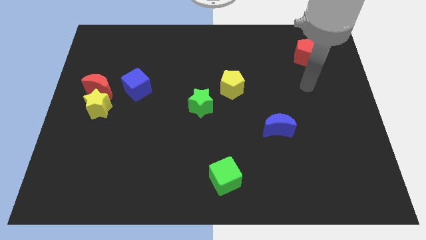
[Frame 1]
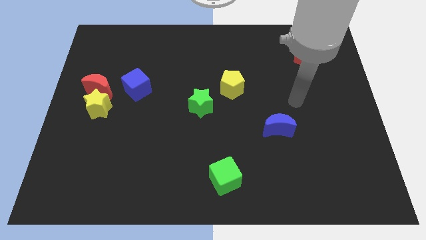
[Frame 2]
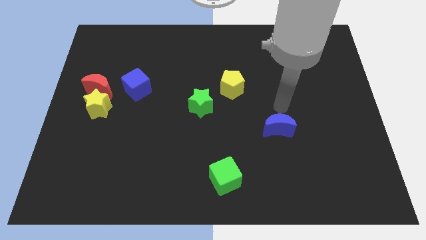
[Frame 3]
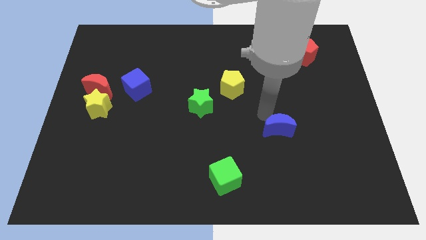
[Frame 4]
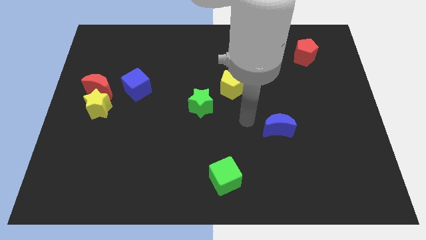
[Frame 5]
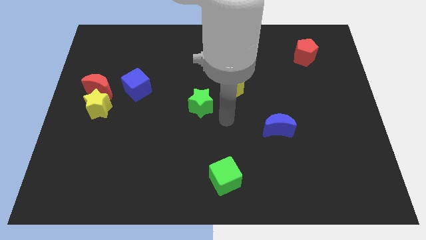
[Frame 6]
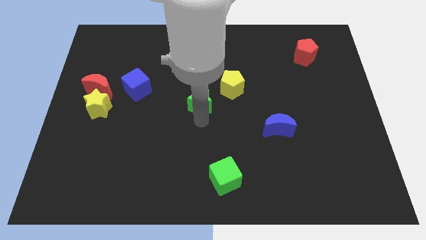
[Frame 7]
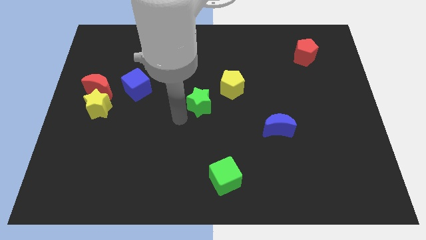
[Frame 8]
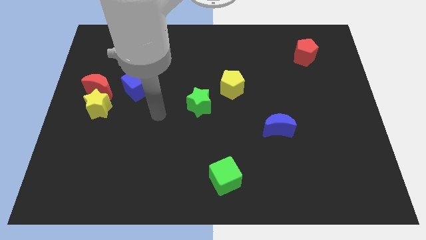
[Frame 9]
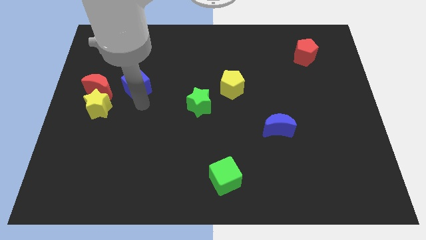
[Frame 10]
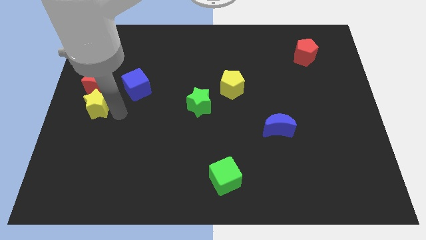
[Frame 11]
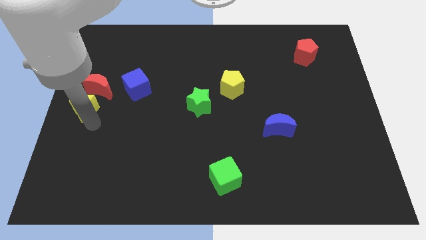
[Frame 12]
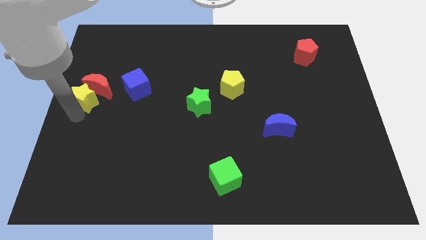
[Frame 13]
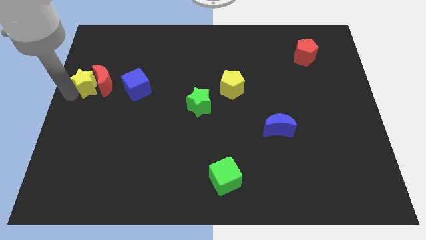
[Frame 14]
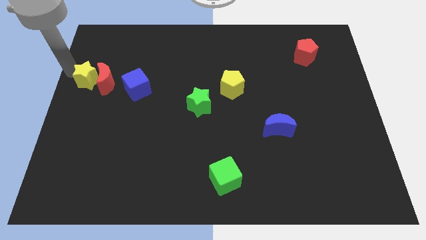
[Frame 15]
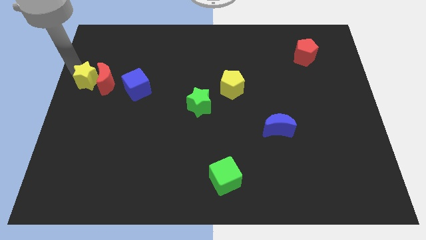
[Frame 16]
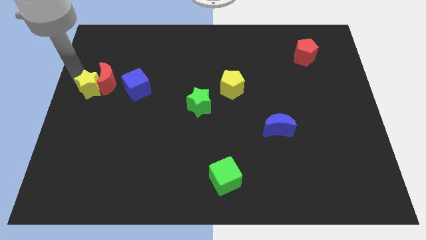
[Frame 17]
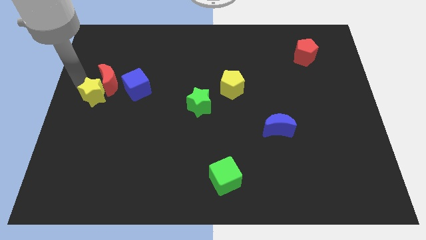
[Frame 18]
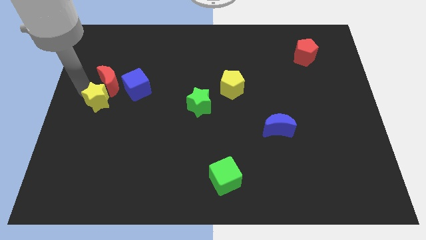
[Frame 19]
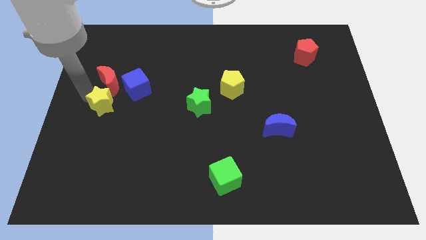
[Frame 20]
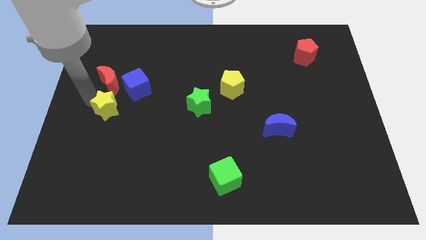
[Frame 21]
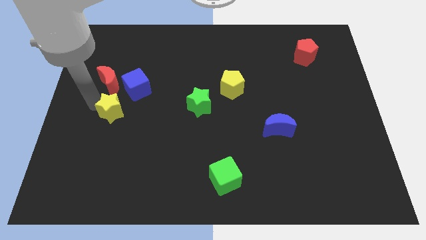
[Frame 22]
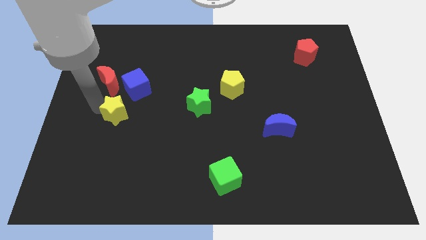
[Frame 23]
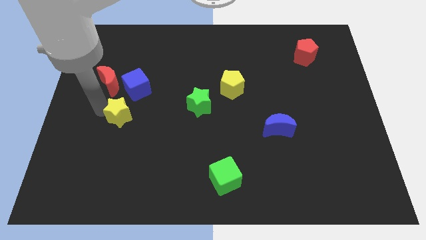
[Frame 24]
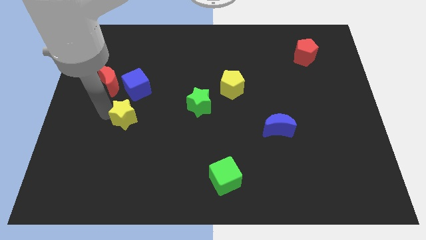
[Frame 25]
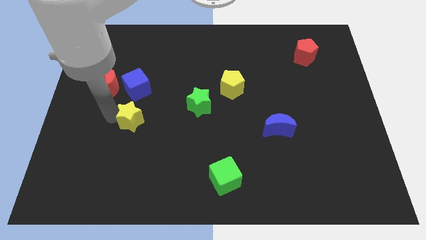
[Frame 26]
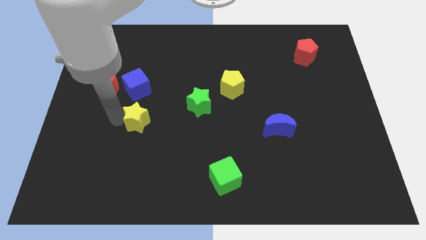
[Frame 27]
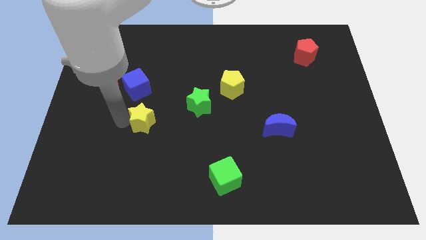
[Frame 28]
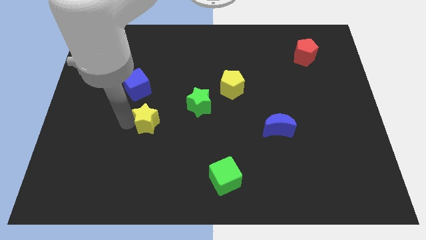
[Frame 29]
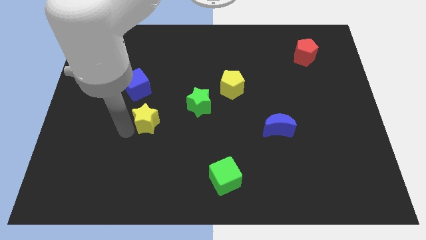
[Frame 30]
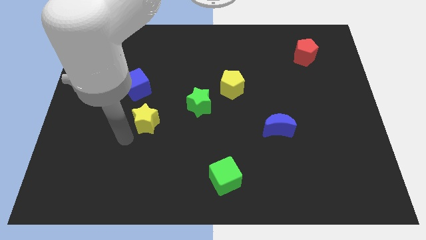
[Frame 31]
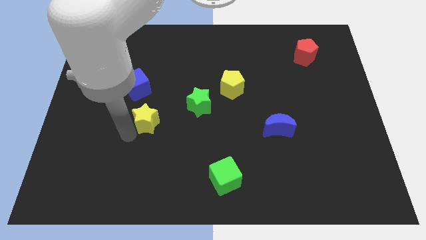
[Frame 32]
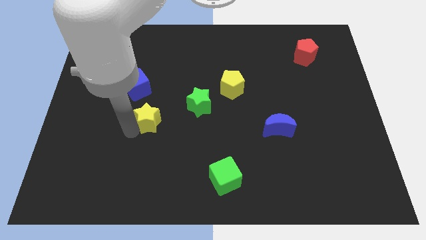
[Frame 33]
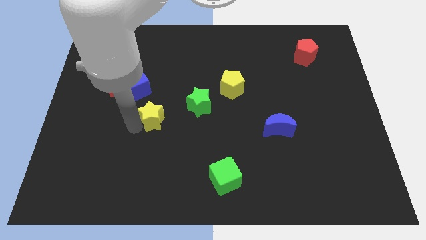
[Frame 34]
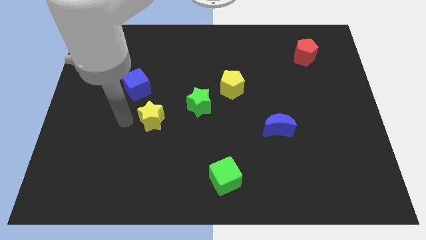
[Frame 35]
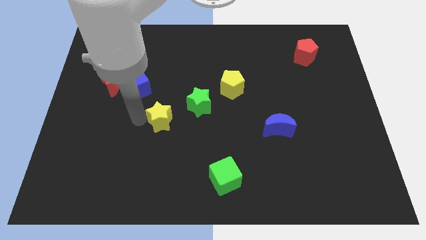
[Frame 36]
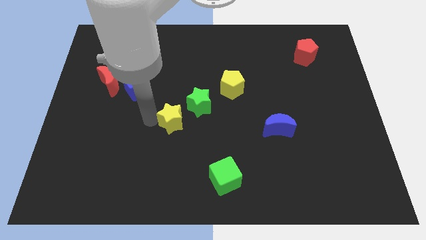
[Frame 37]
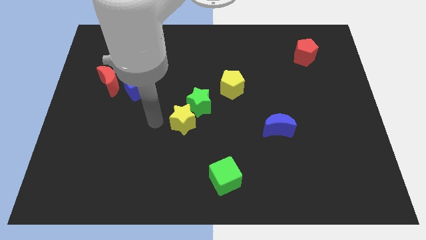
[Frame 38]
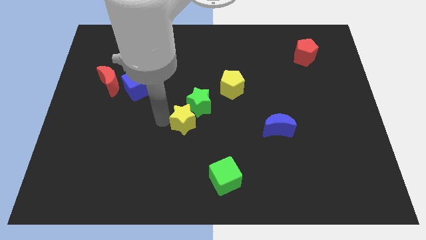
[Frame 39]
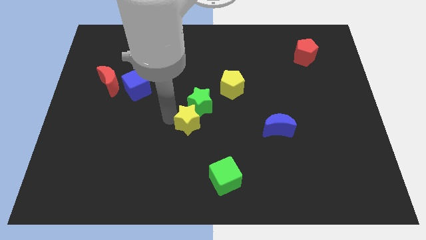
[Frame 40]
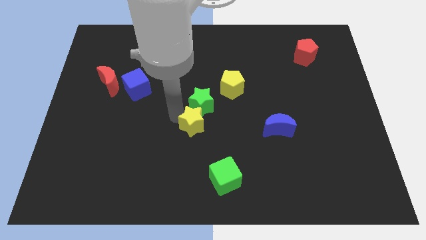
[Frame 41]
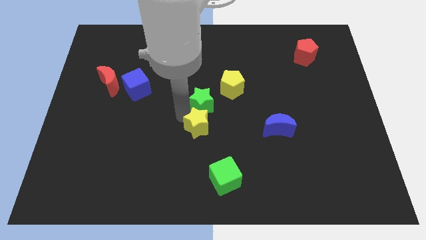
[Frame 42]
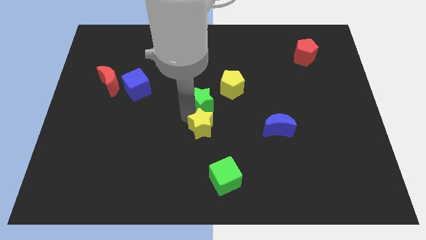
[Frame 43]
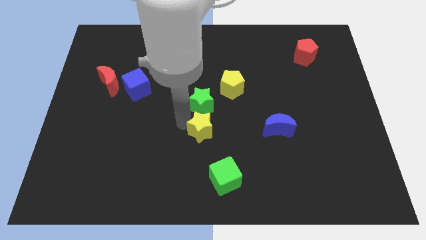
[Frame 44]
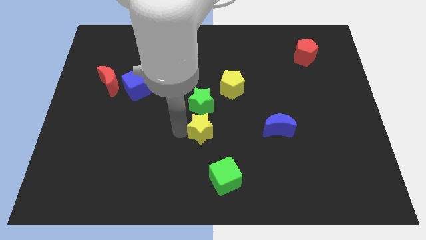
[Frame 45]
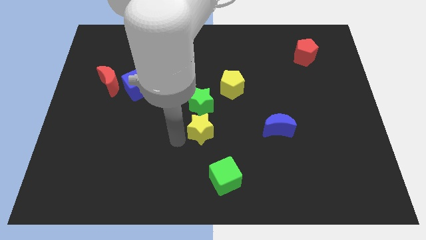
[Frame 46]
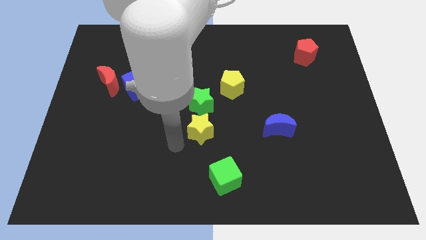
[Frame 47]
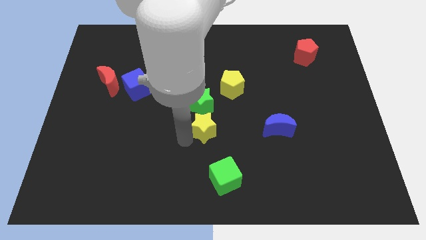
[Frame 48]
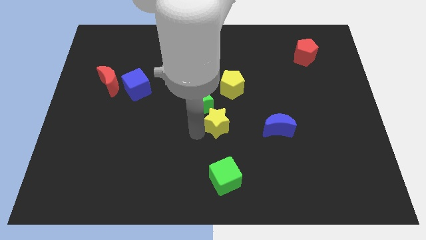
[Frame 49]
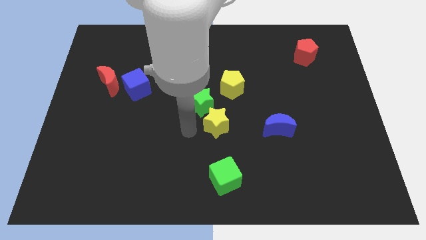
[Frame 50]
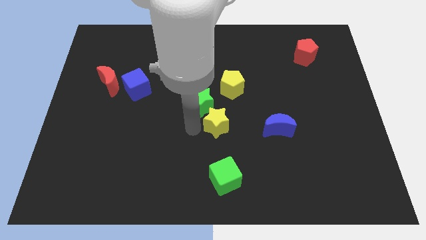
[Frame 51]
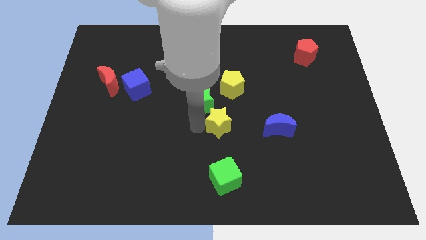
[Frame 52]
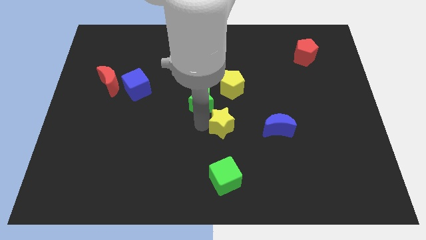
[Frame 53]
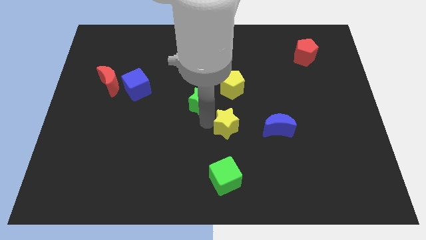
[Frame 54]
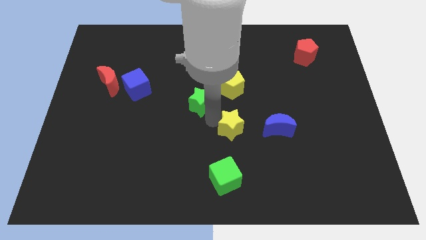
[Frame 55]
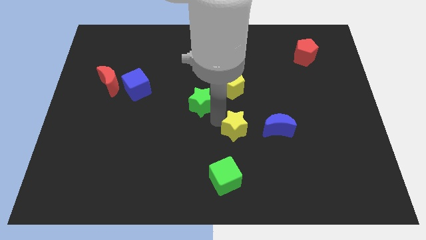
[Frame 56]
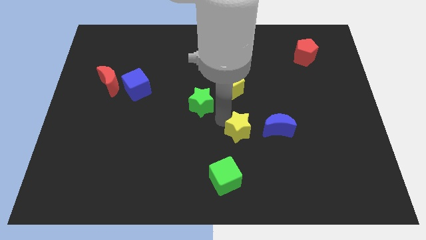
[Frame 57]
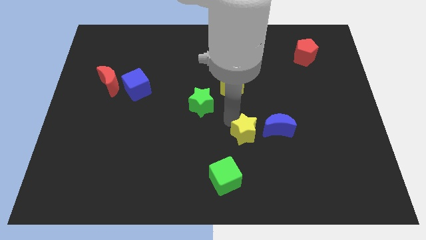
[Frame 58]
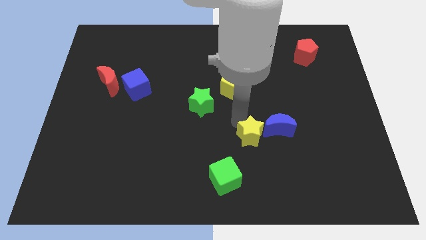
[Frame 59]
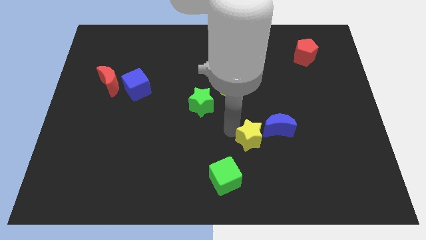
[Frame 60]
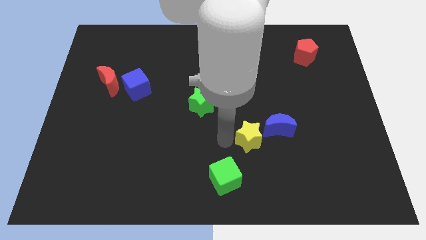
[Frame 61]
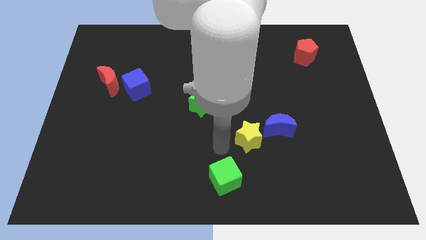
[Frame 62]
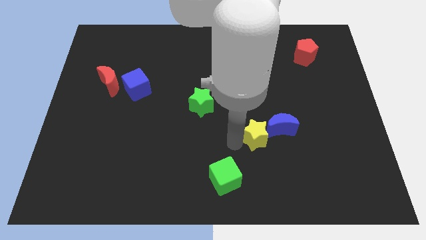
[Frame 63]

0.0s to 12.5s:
put the yellow star towards the blue moon

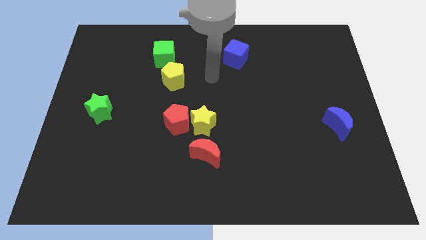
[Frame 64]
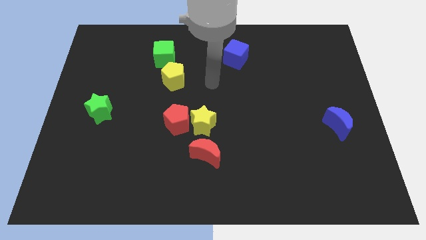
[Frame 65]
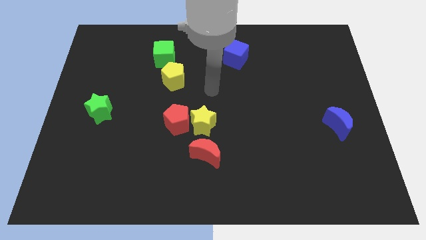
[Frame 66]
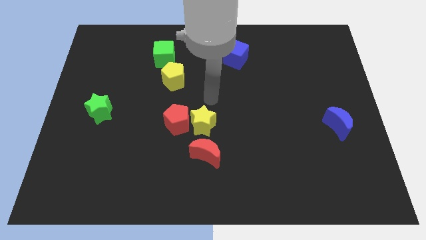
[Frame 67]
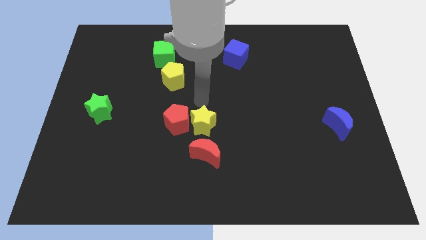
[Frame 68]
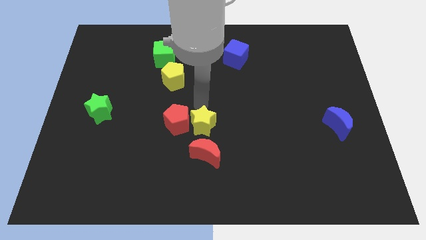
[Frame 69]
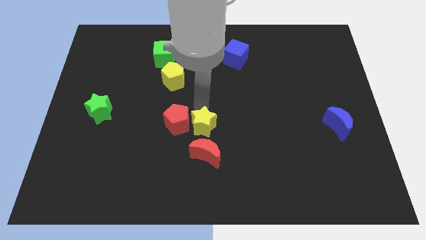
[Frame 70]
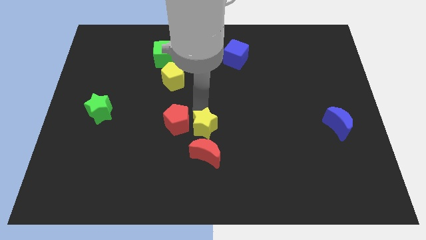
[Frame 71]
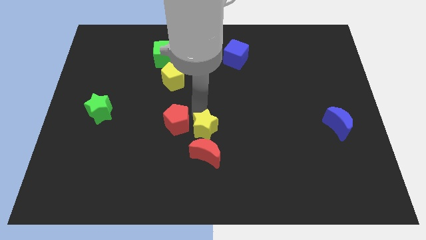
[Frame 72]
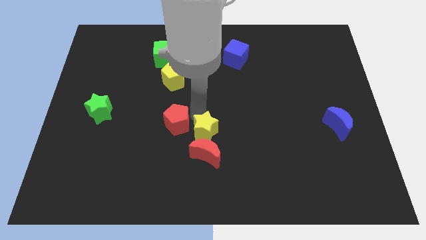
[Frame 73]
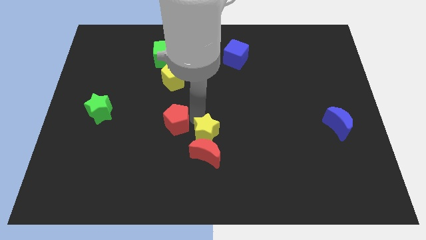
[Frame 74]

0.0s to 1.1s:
move the yellow star close to the red moon
